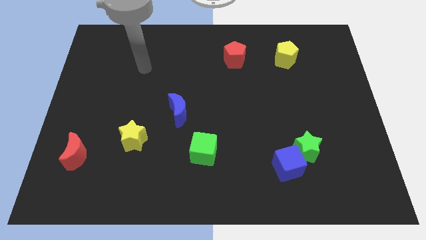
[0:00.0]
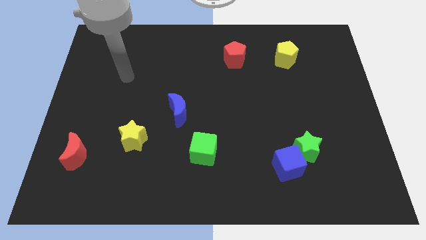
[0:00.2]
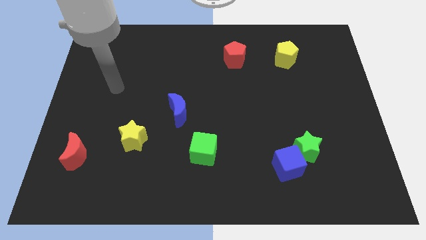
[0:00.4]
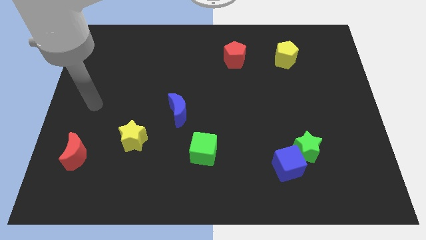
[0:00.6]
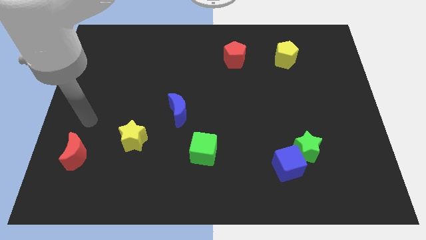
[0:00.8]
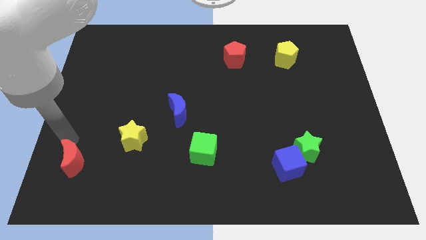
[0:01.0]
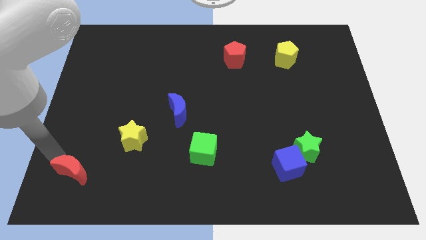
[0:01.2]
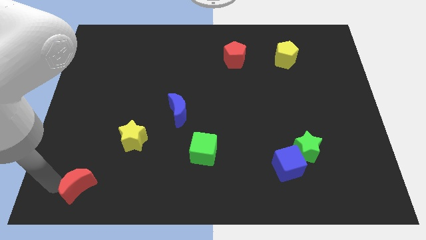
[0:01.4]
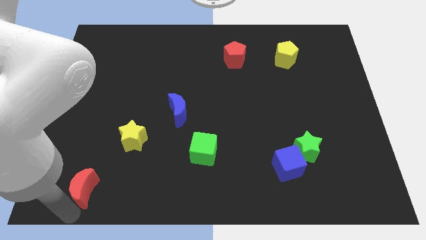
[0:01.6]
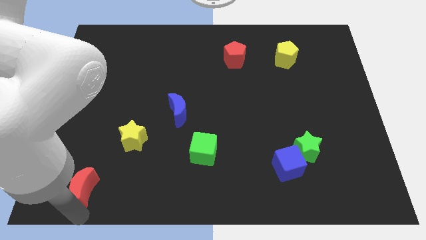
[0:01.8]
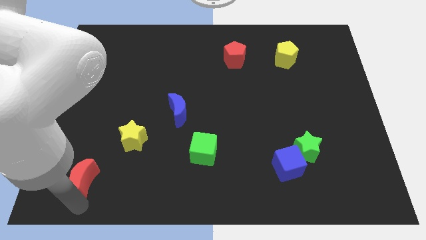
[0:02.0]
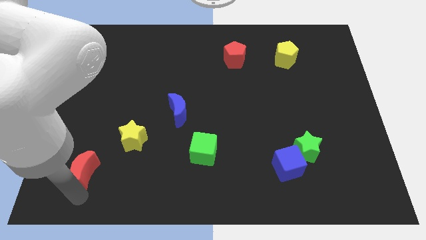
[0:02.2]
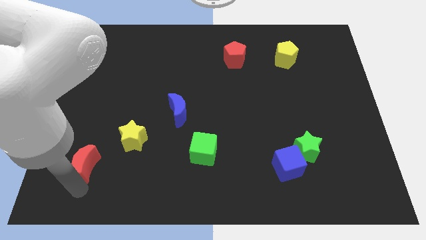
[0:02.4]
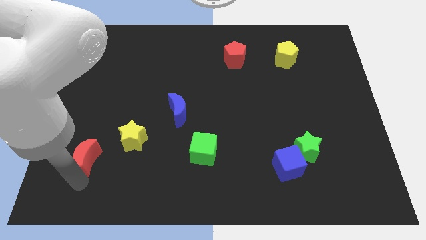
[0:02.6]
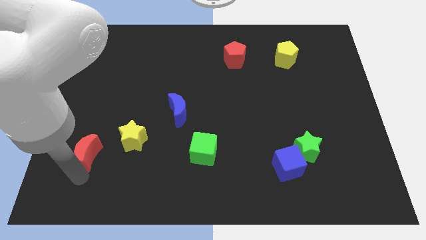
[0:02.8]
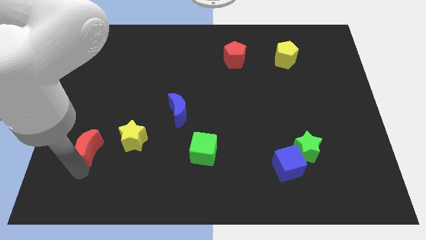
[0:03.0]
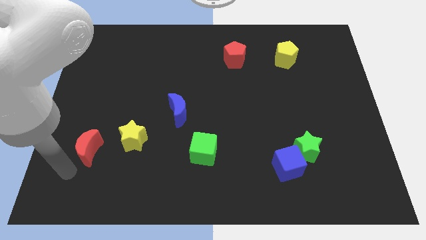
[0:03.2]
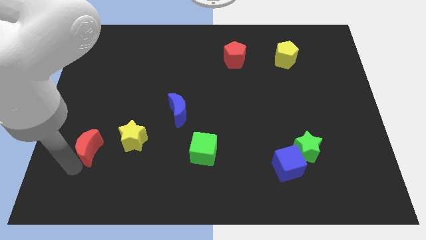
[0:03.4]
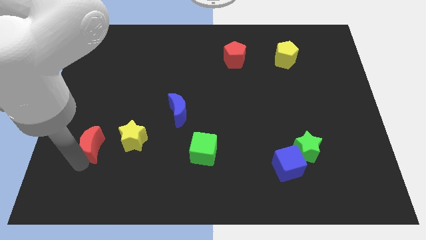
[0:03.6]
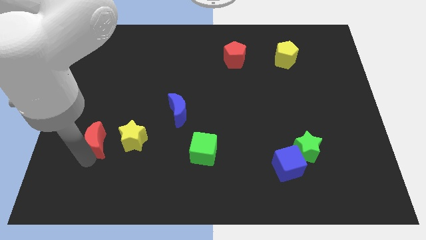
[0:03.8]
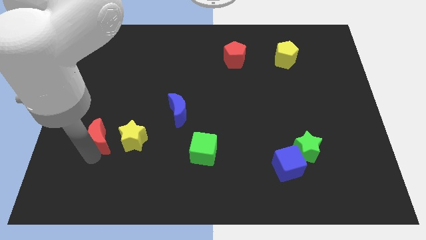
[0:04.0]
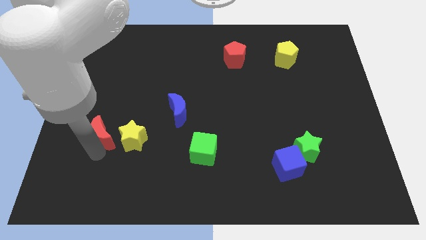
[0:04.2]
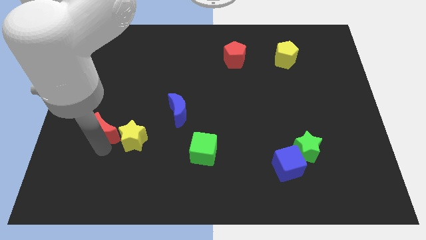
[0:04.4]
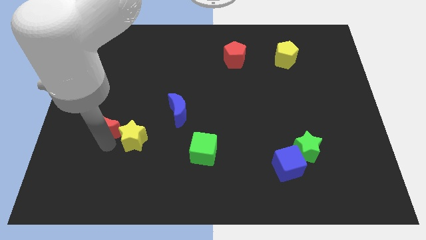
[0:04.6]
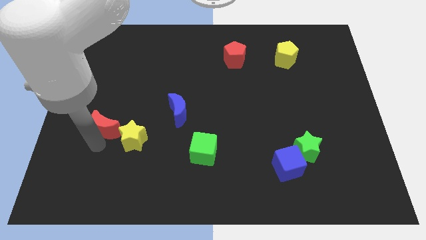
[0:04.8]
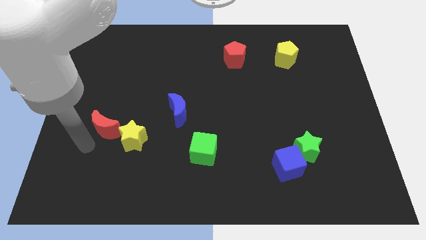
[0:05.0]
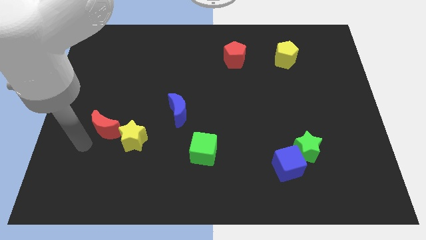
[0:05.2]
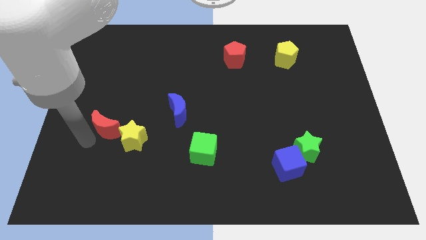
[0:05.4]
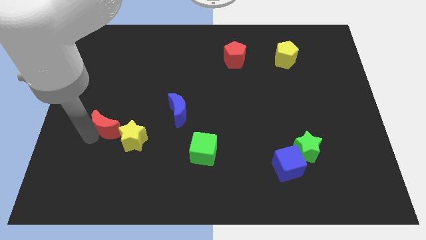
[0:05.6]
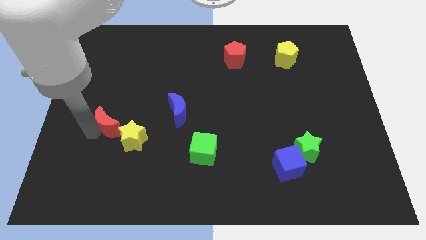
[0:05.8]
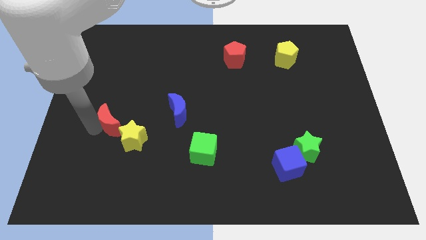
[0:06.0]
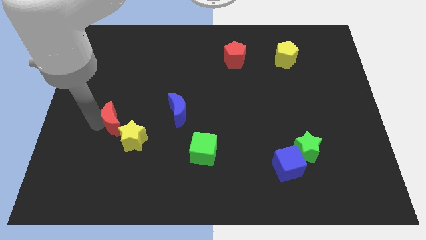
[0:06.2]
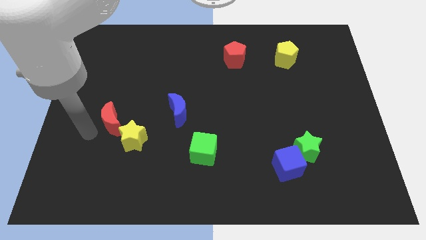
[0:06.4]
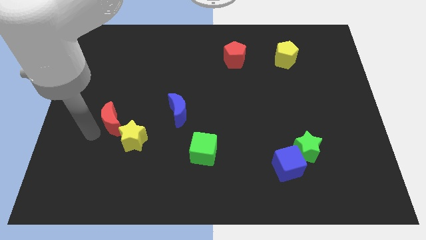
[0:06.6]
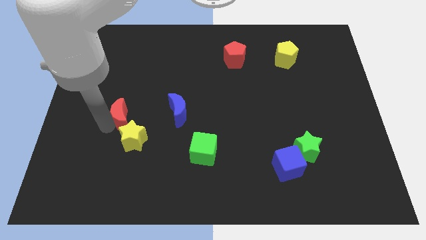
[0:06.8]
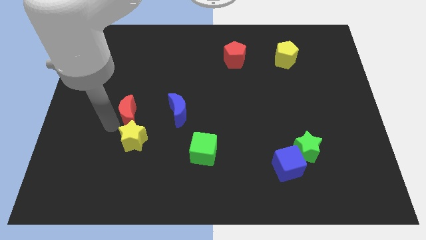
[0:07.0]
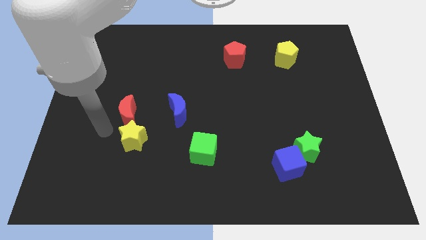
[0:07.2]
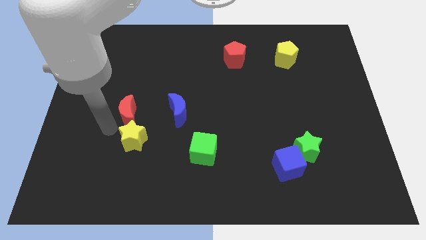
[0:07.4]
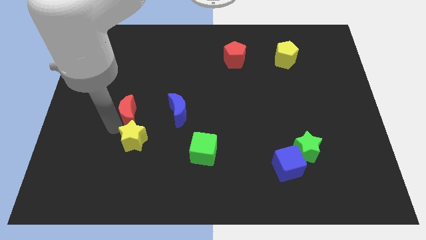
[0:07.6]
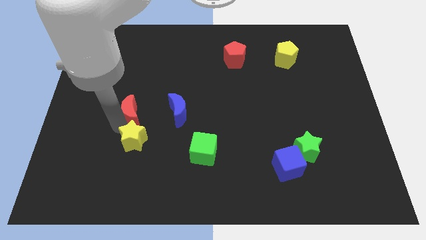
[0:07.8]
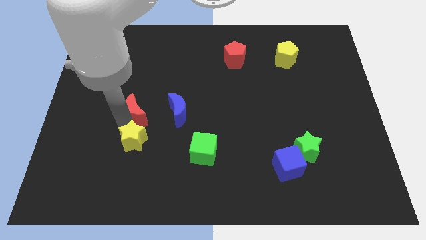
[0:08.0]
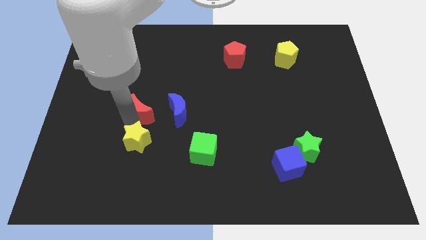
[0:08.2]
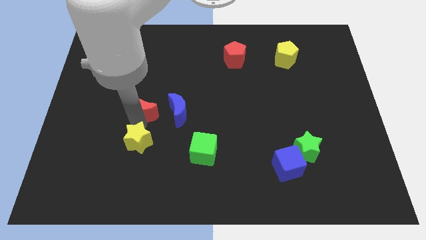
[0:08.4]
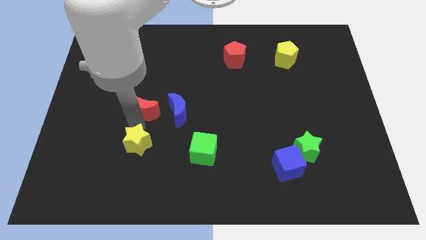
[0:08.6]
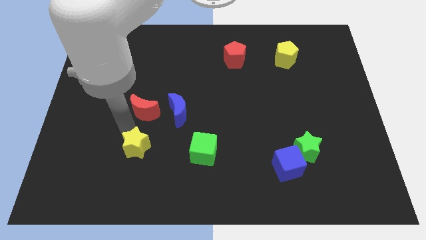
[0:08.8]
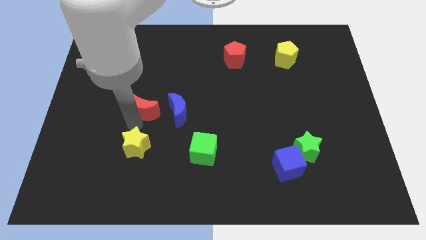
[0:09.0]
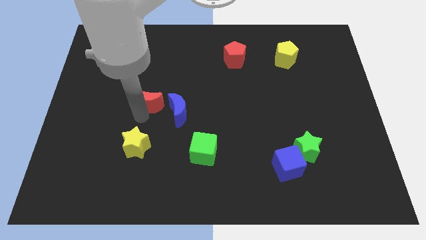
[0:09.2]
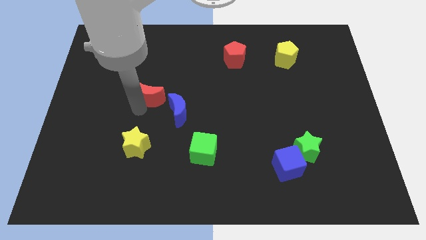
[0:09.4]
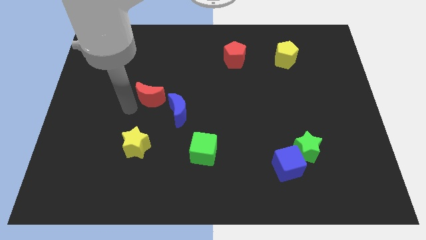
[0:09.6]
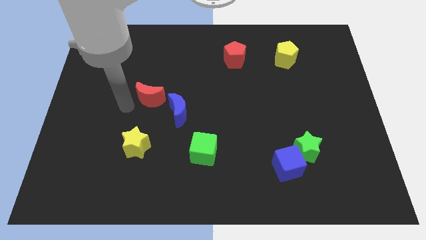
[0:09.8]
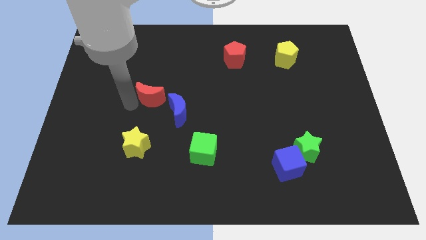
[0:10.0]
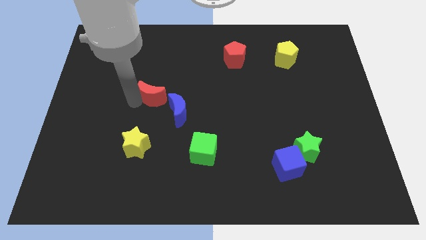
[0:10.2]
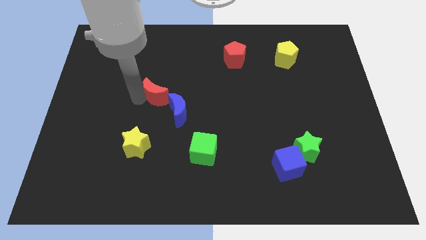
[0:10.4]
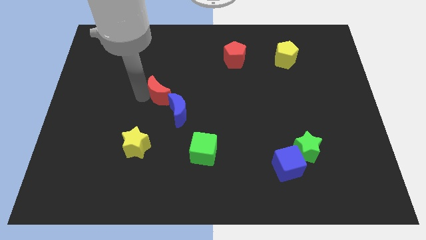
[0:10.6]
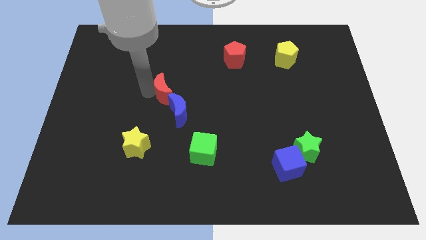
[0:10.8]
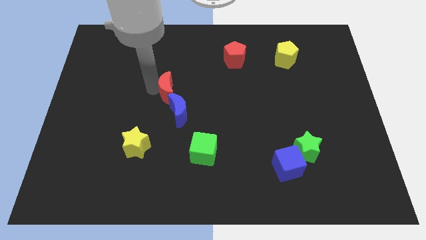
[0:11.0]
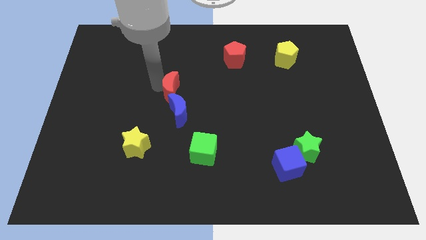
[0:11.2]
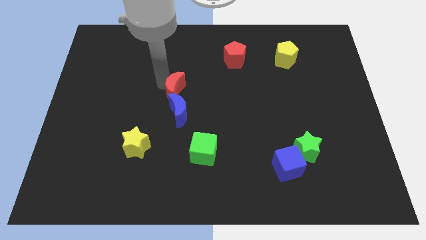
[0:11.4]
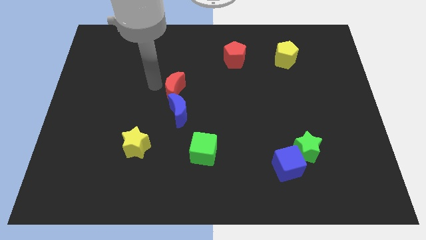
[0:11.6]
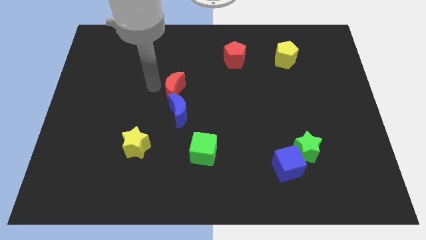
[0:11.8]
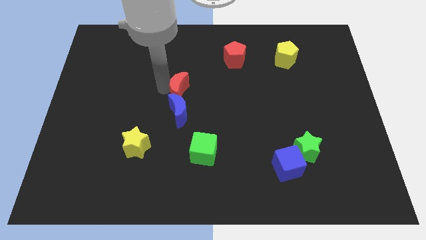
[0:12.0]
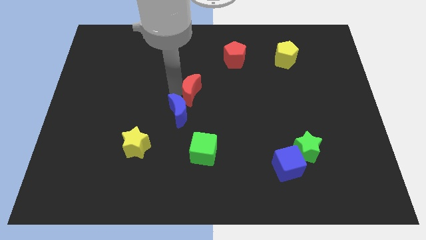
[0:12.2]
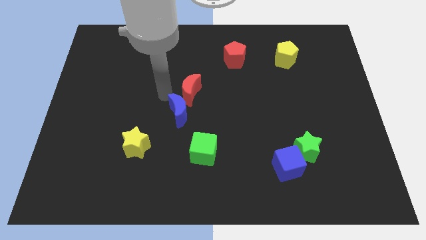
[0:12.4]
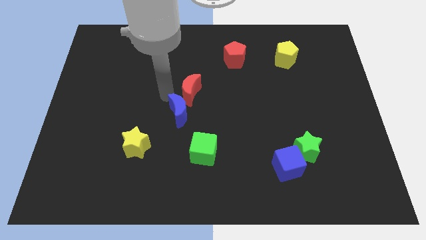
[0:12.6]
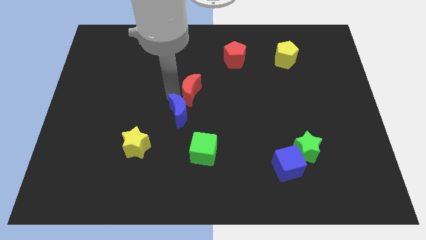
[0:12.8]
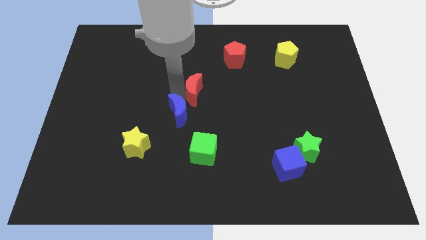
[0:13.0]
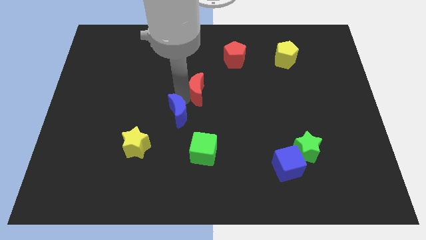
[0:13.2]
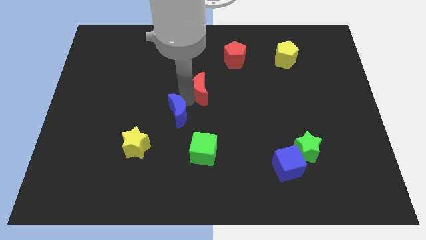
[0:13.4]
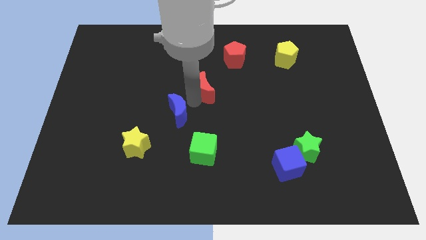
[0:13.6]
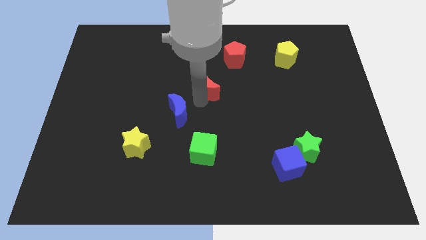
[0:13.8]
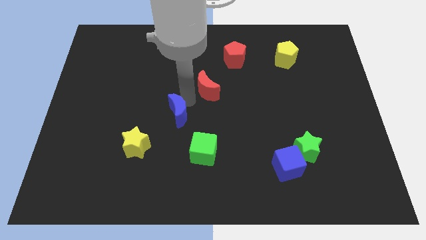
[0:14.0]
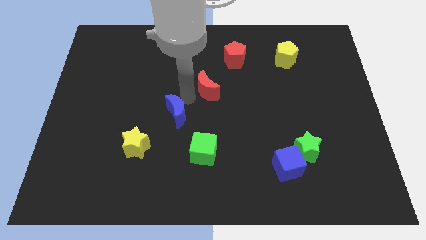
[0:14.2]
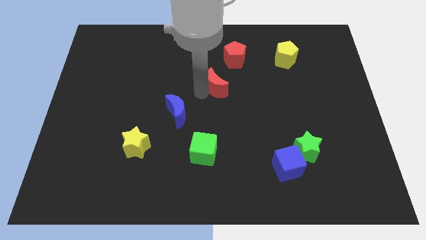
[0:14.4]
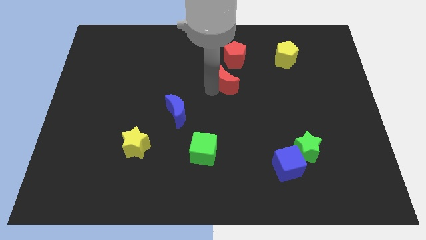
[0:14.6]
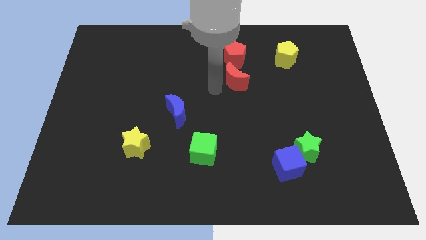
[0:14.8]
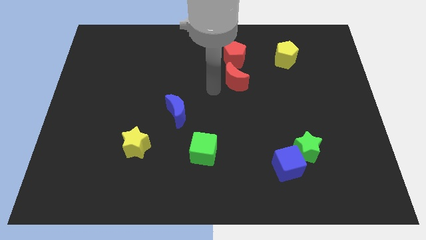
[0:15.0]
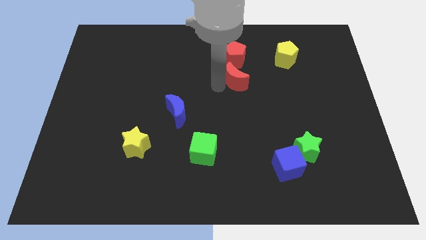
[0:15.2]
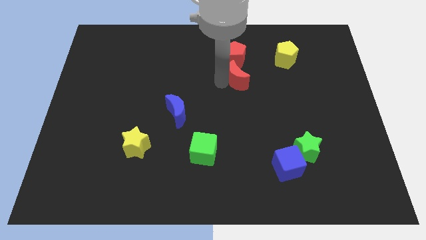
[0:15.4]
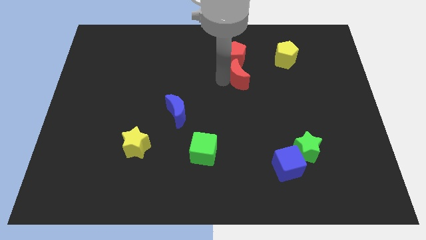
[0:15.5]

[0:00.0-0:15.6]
put the red moon to the bottom right of the red pentagon
